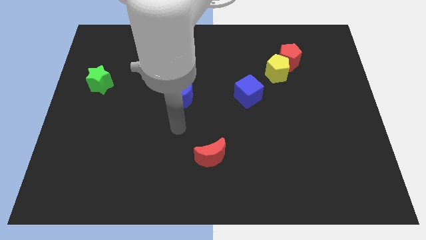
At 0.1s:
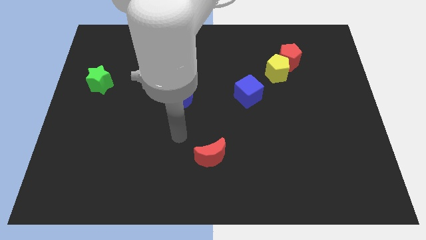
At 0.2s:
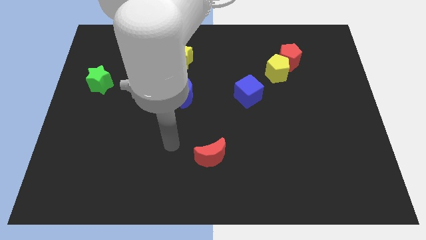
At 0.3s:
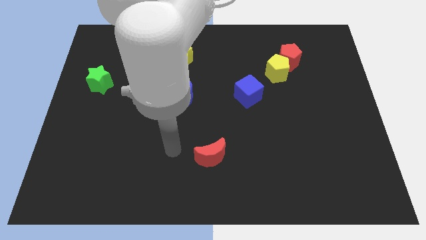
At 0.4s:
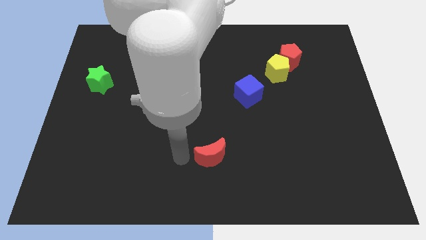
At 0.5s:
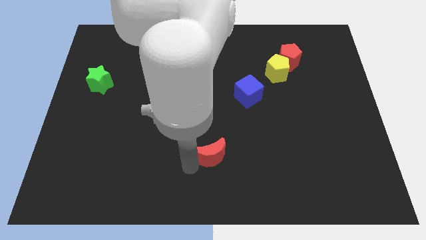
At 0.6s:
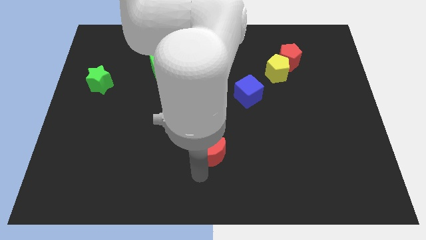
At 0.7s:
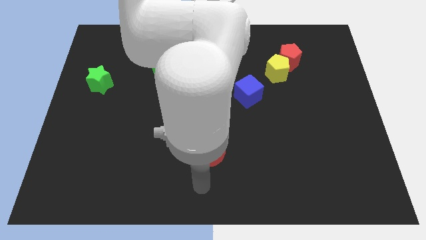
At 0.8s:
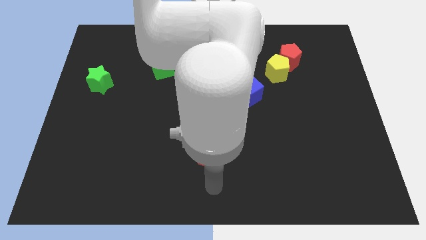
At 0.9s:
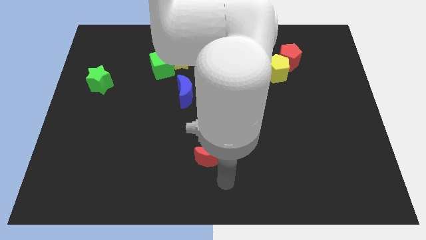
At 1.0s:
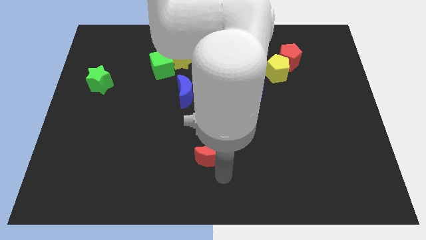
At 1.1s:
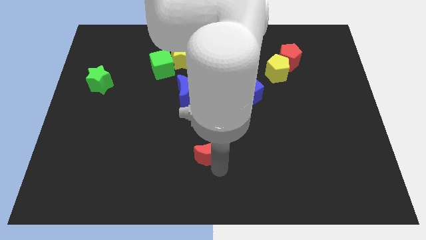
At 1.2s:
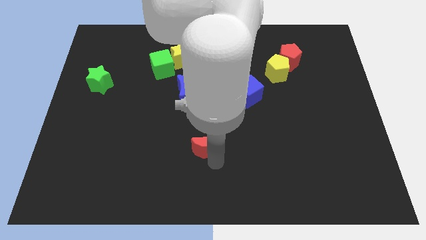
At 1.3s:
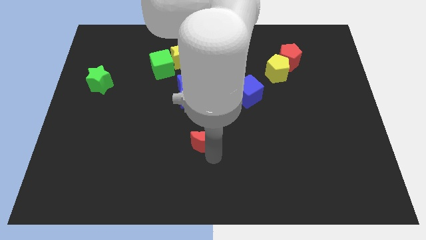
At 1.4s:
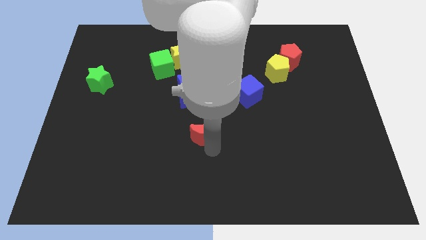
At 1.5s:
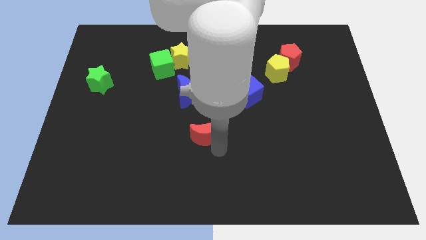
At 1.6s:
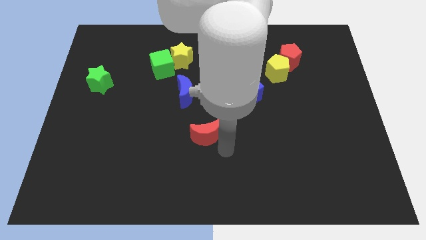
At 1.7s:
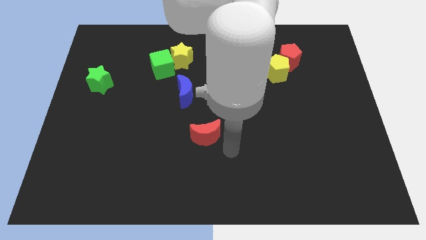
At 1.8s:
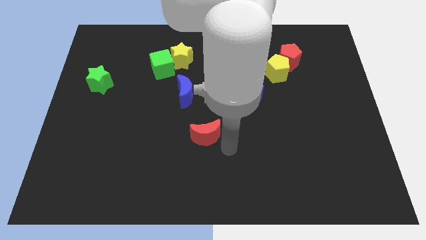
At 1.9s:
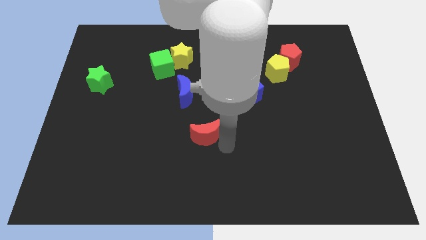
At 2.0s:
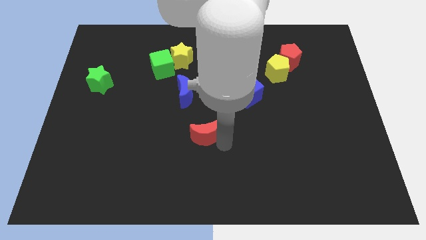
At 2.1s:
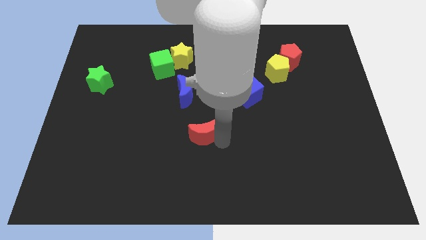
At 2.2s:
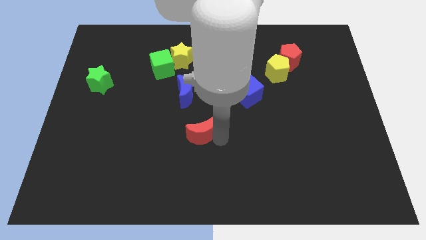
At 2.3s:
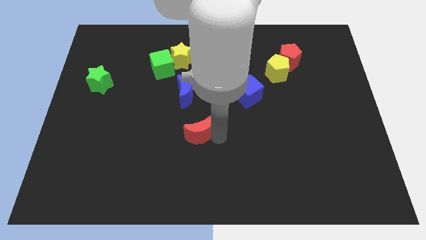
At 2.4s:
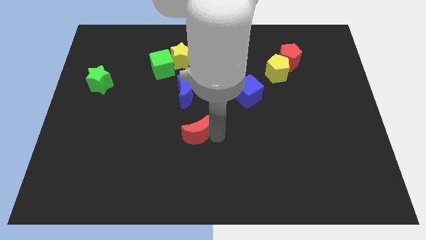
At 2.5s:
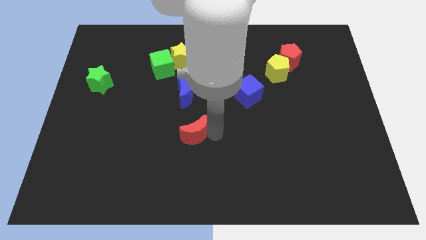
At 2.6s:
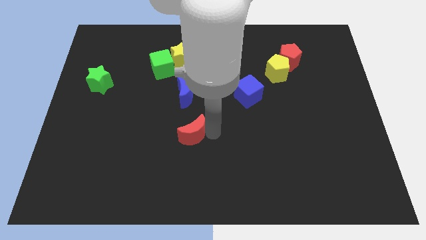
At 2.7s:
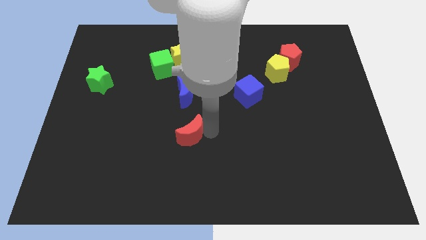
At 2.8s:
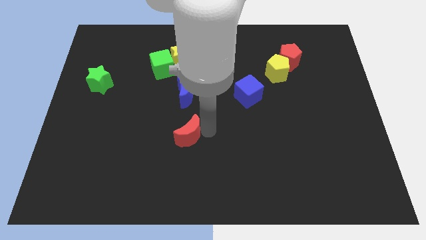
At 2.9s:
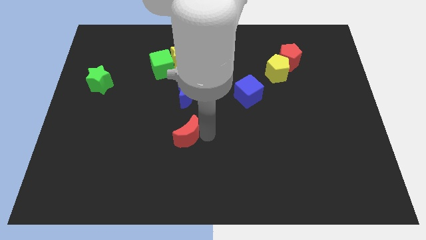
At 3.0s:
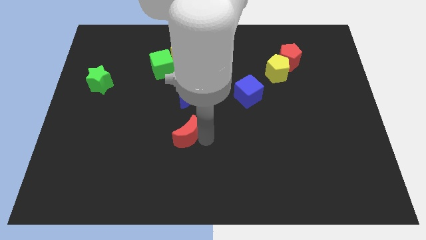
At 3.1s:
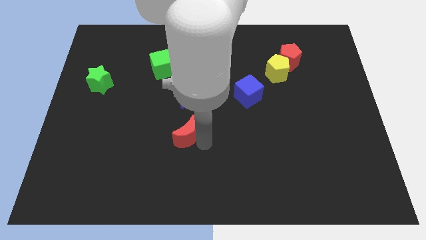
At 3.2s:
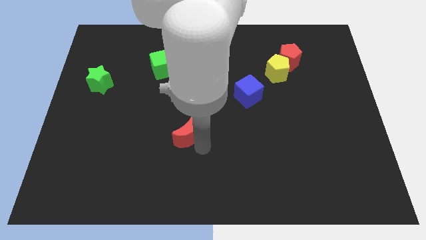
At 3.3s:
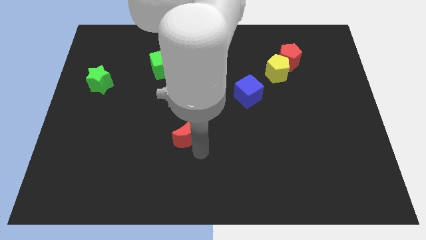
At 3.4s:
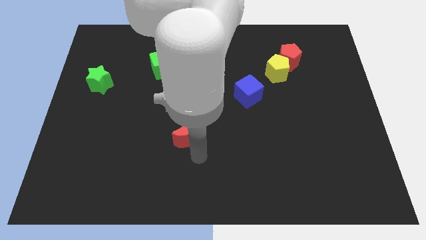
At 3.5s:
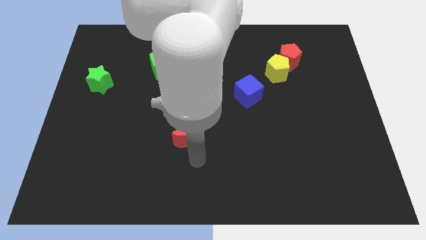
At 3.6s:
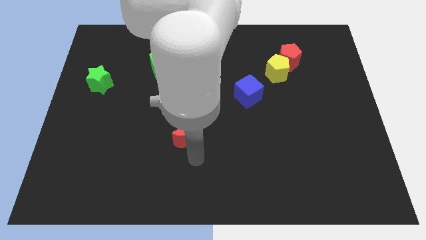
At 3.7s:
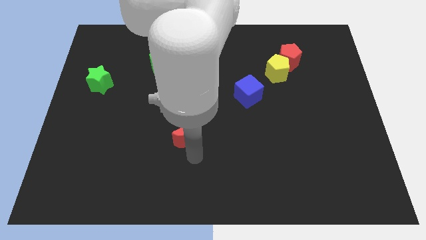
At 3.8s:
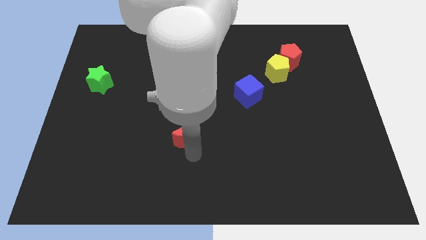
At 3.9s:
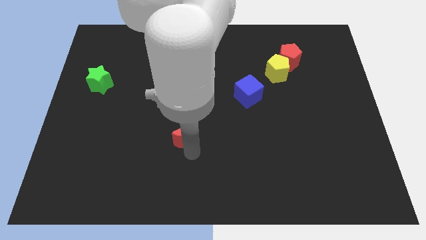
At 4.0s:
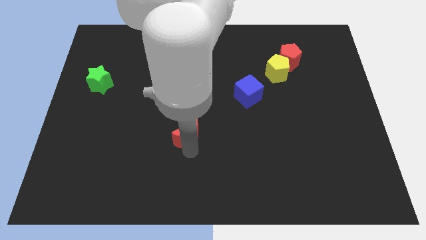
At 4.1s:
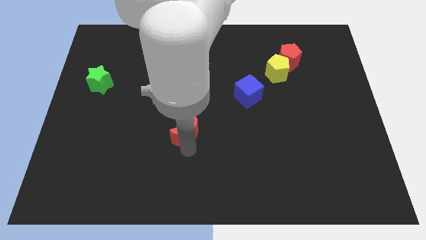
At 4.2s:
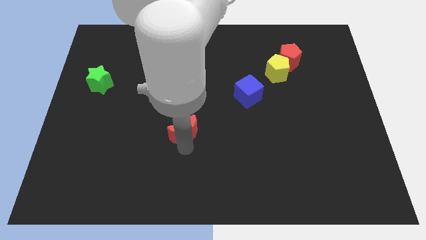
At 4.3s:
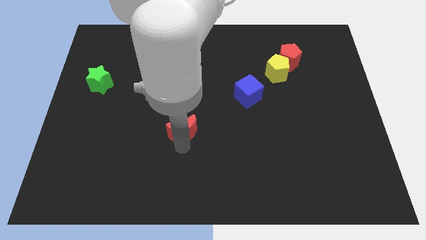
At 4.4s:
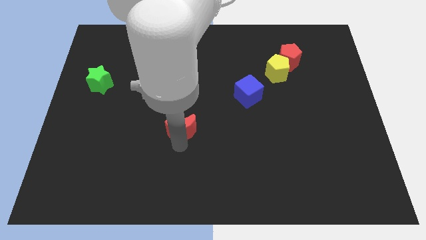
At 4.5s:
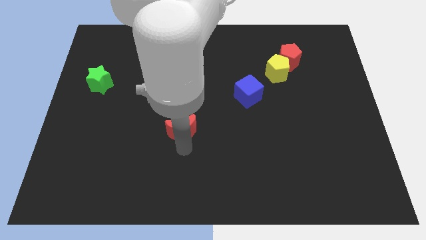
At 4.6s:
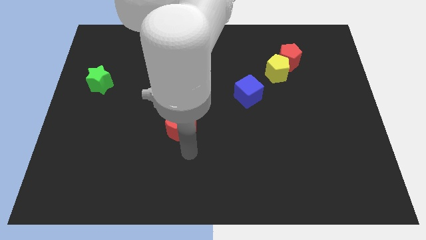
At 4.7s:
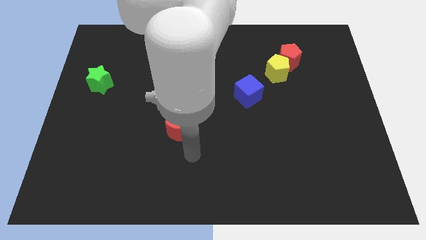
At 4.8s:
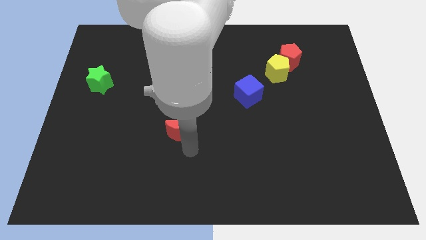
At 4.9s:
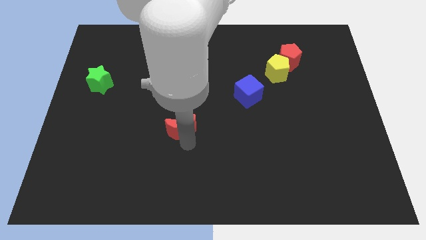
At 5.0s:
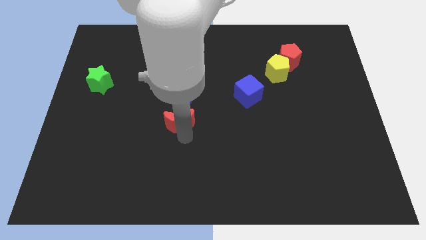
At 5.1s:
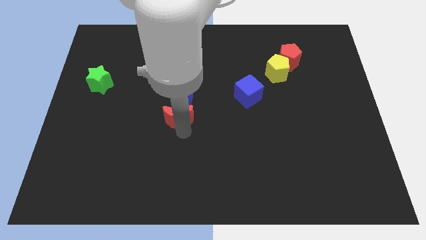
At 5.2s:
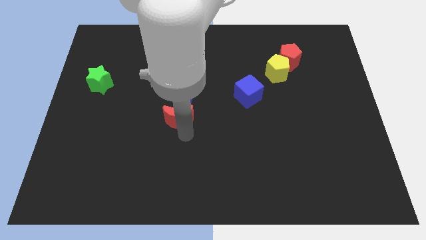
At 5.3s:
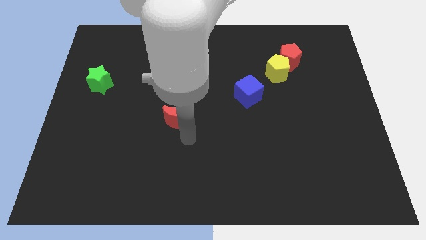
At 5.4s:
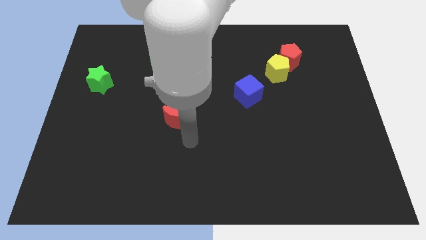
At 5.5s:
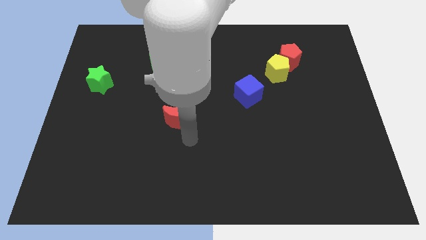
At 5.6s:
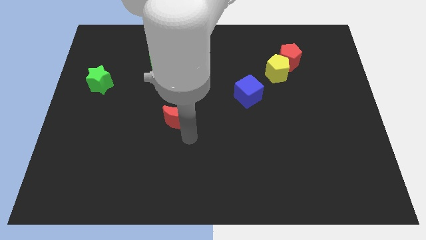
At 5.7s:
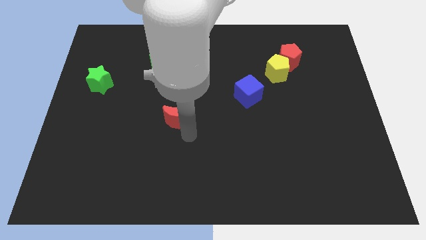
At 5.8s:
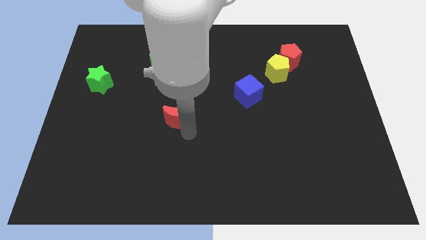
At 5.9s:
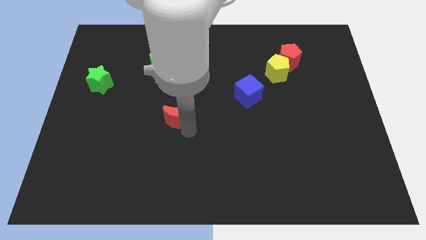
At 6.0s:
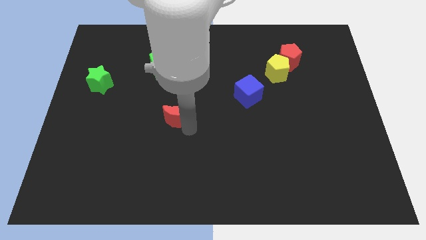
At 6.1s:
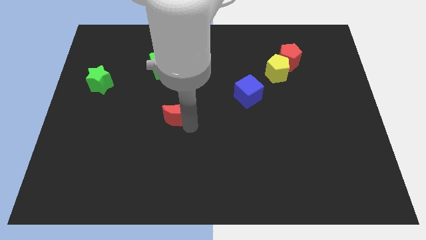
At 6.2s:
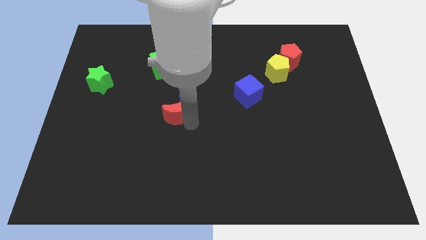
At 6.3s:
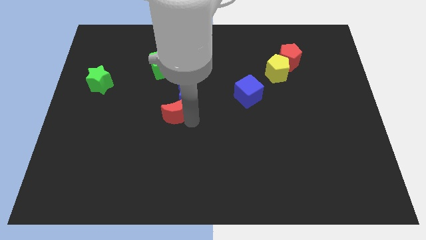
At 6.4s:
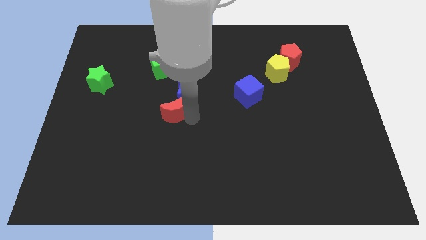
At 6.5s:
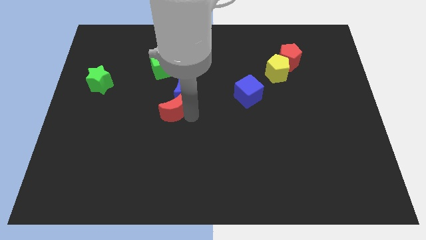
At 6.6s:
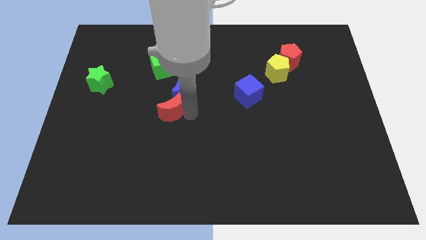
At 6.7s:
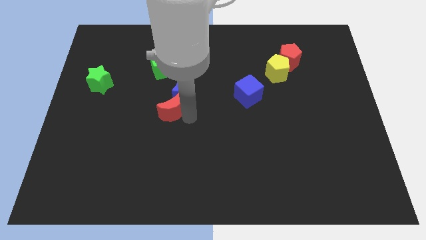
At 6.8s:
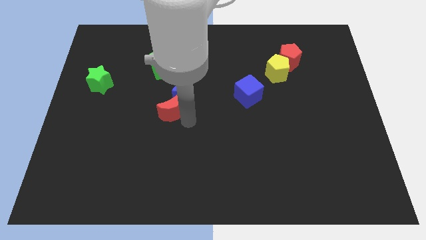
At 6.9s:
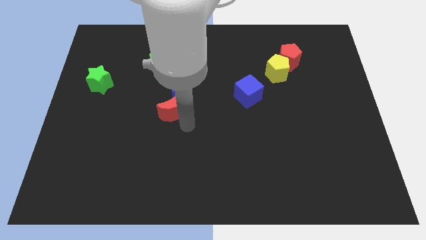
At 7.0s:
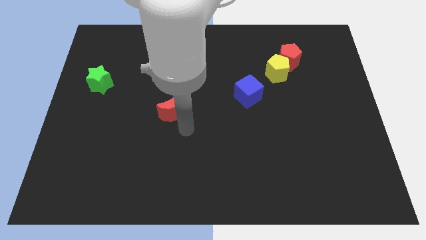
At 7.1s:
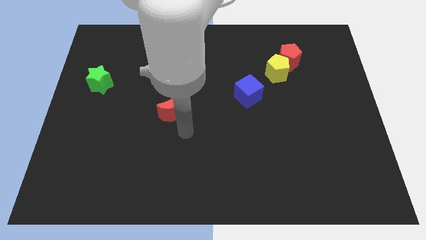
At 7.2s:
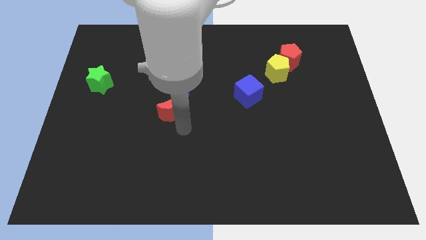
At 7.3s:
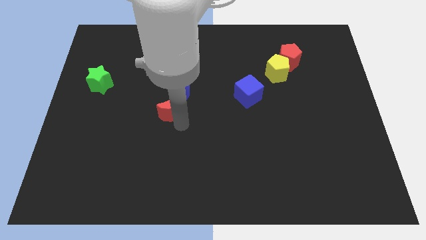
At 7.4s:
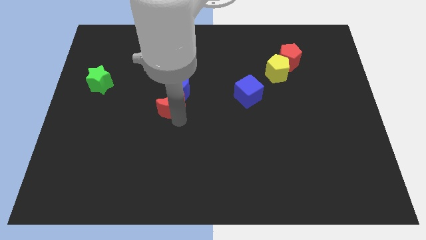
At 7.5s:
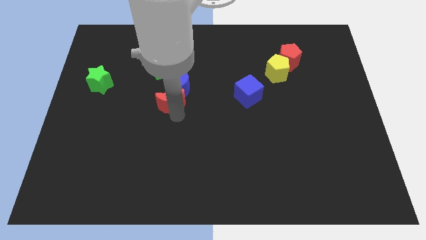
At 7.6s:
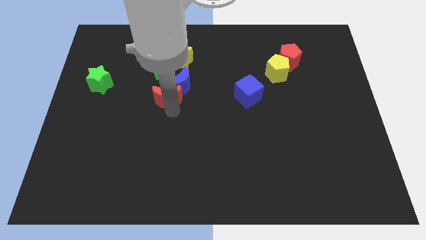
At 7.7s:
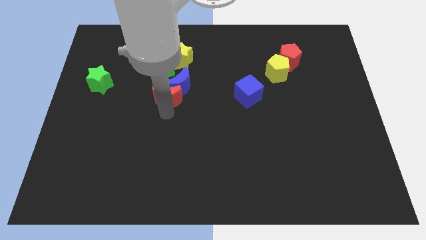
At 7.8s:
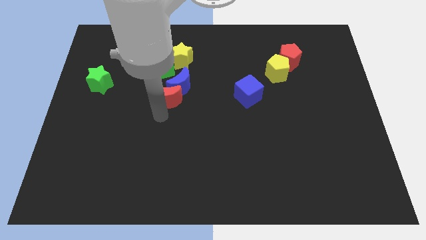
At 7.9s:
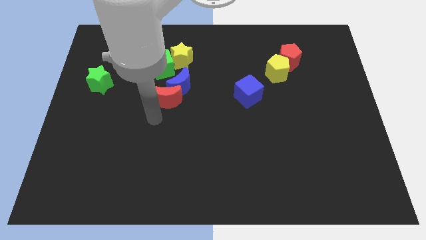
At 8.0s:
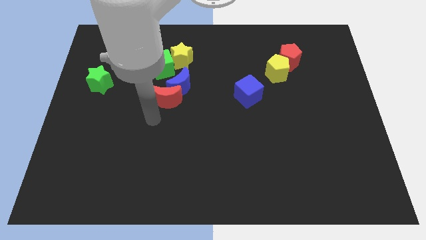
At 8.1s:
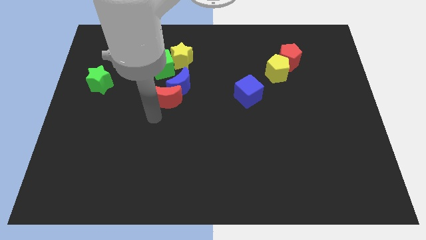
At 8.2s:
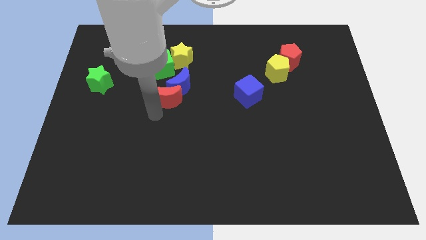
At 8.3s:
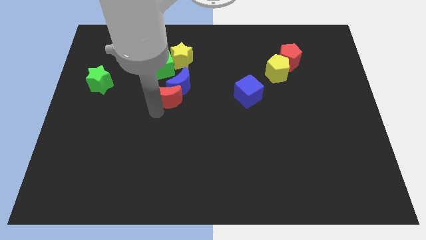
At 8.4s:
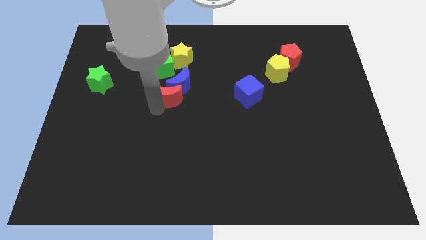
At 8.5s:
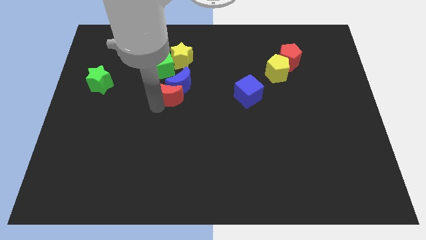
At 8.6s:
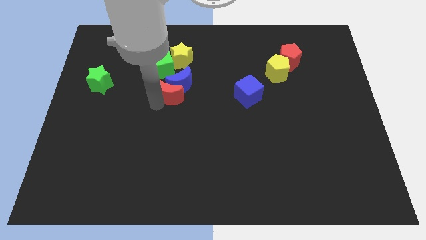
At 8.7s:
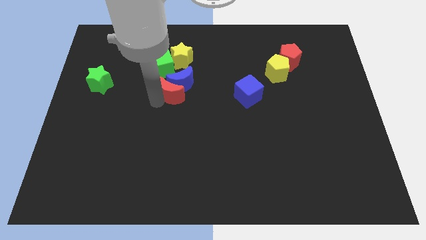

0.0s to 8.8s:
slide the red moon to the bottom right of the green cube
